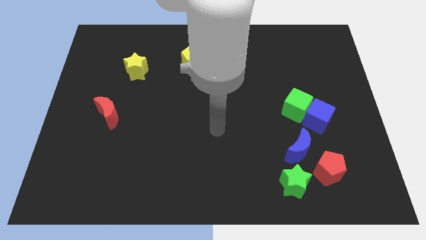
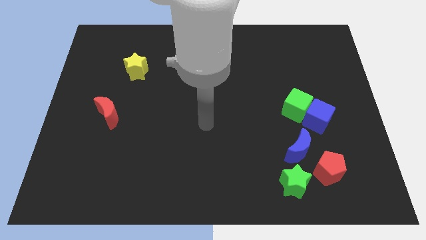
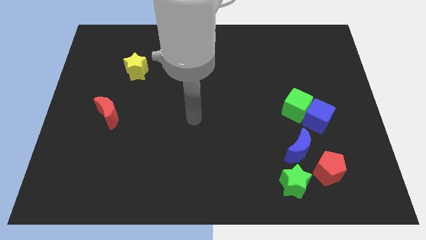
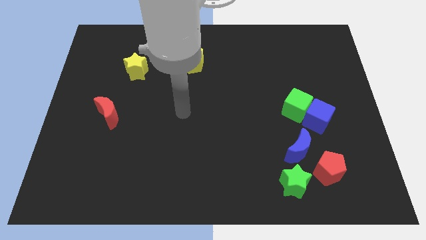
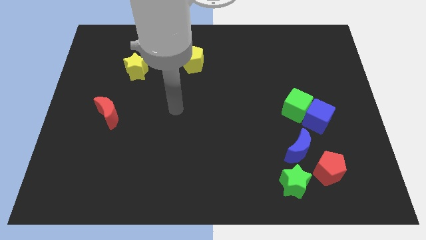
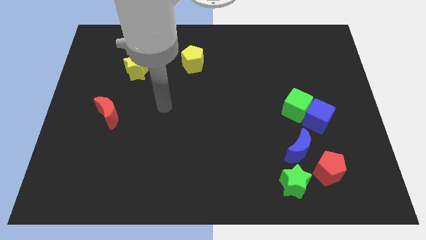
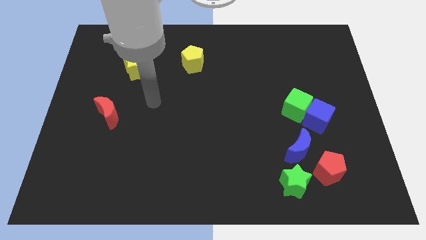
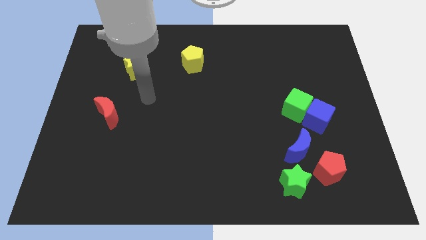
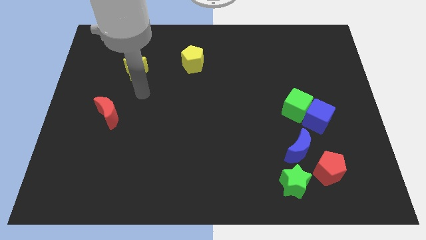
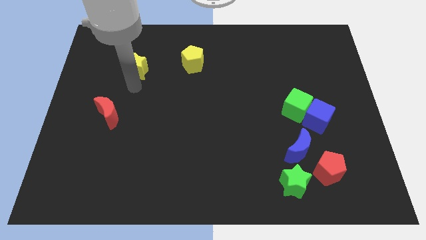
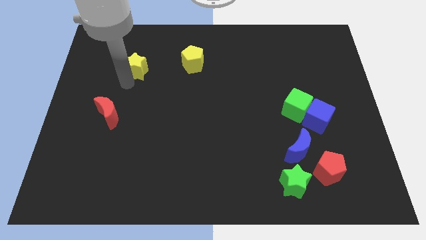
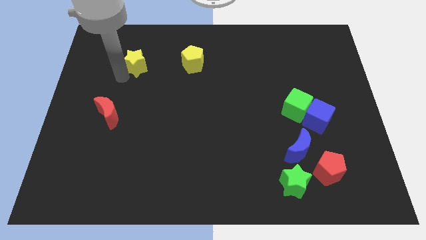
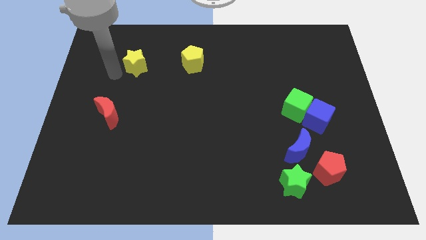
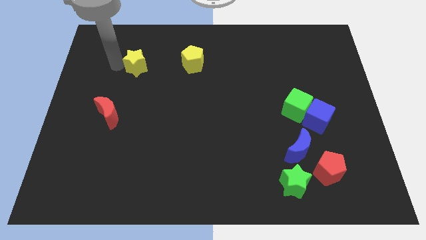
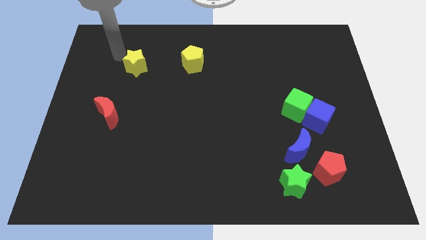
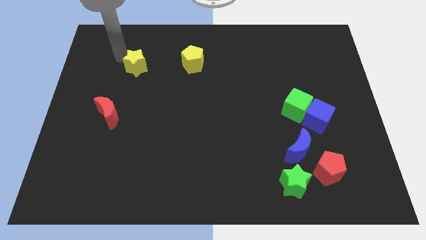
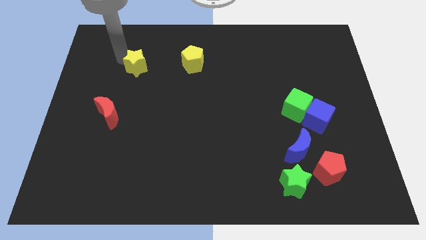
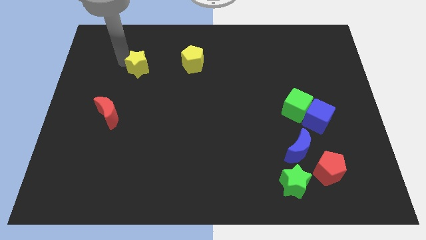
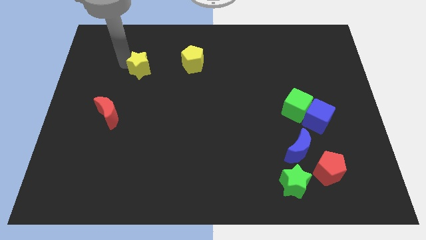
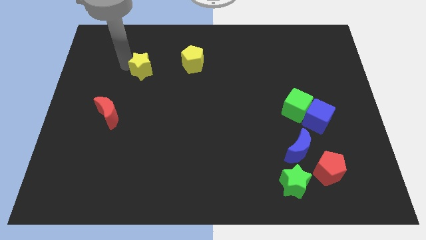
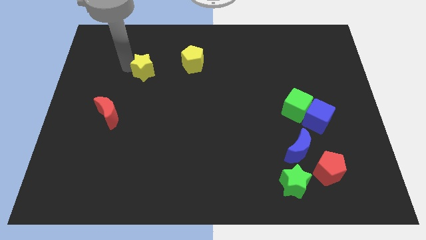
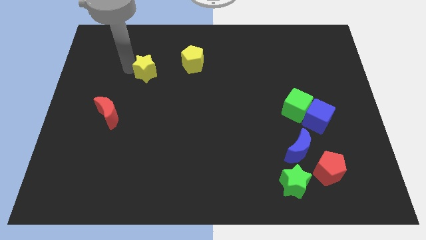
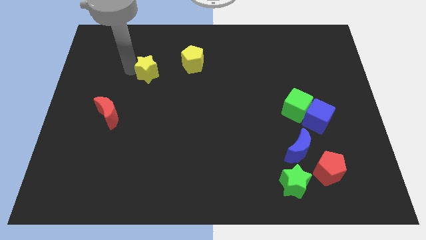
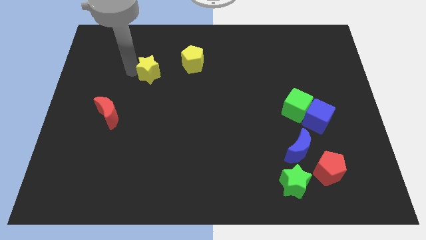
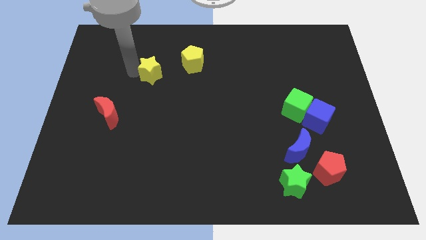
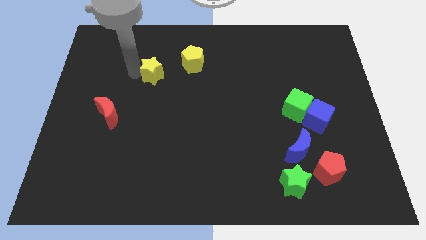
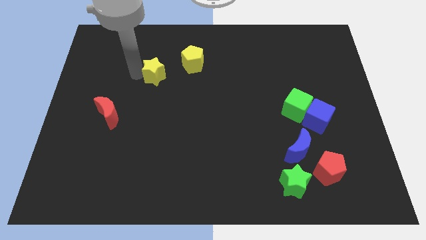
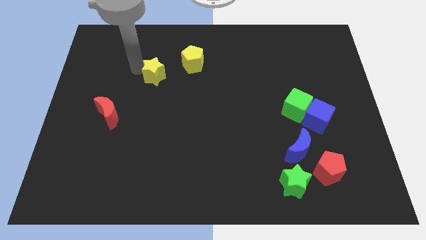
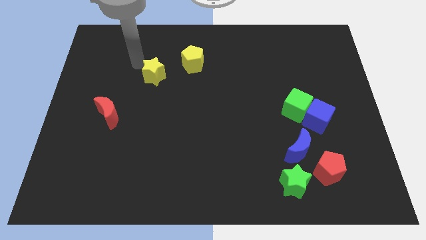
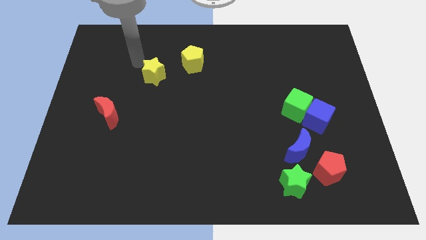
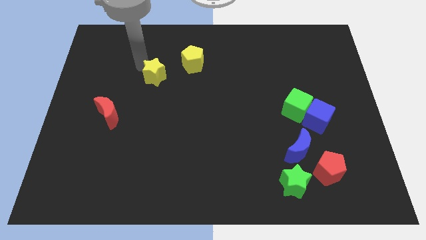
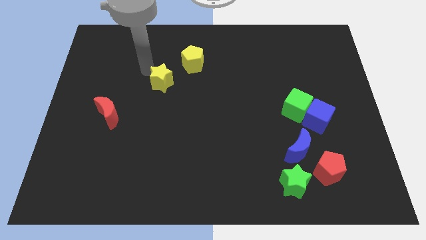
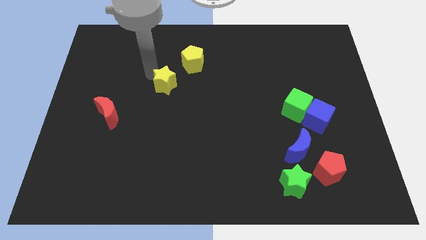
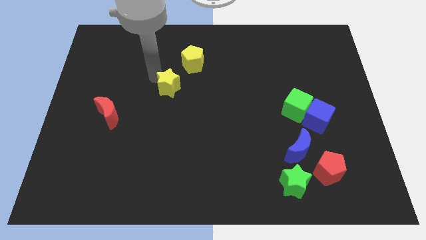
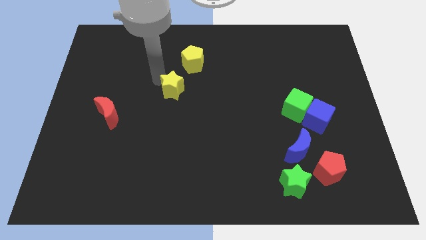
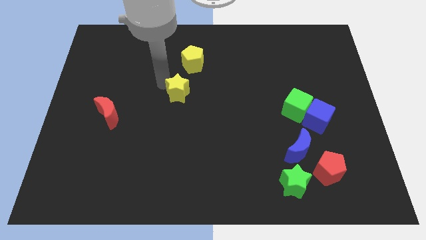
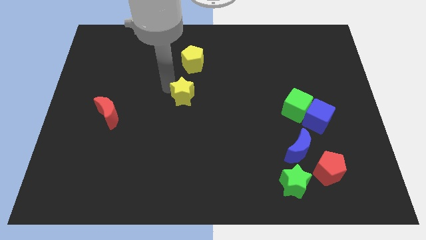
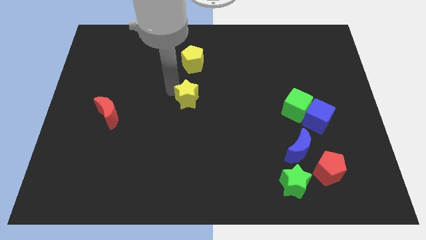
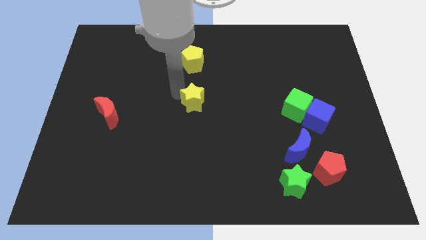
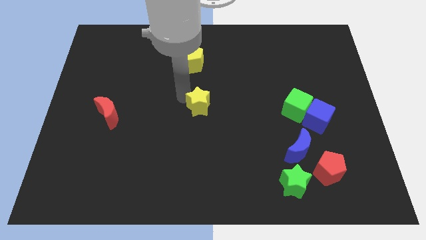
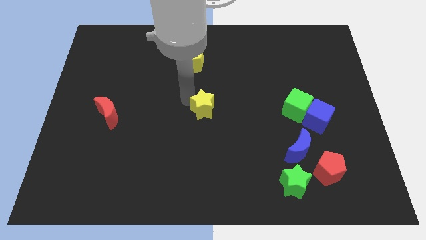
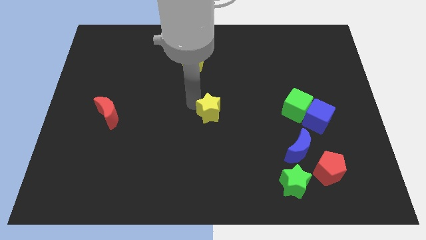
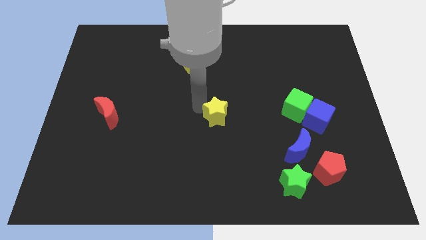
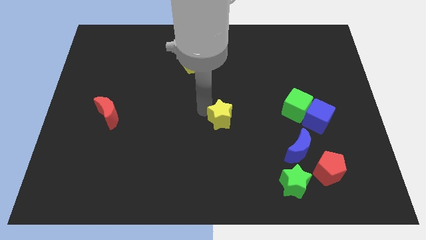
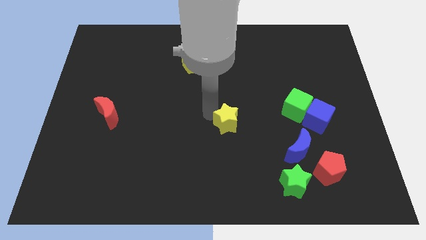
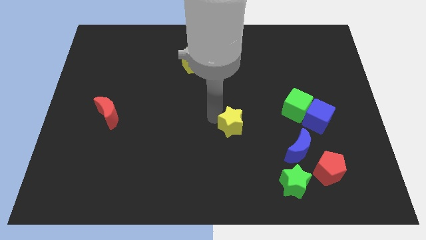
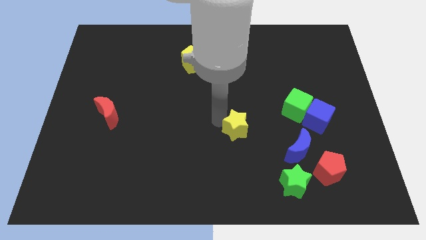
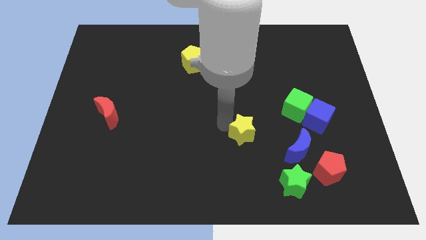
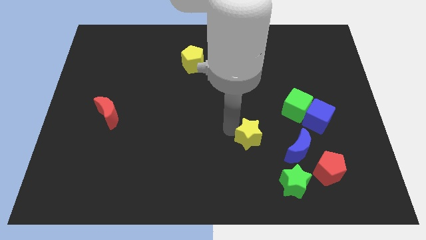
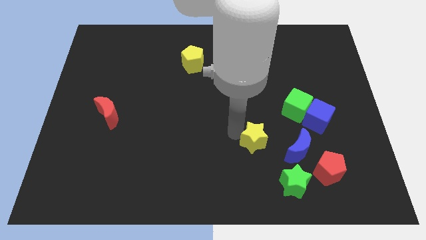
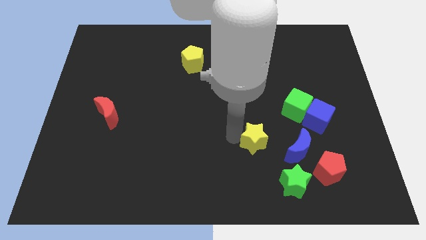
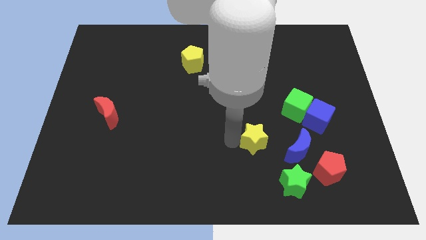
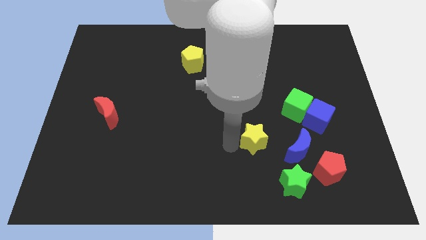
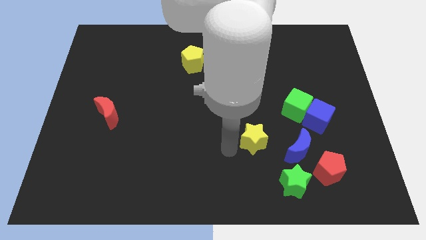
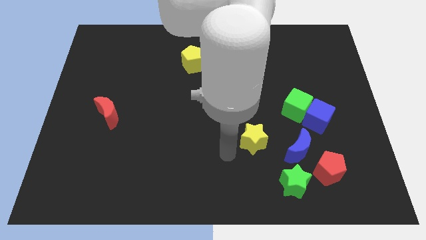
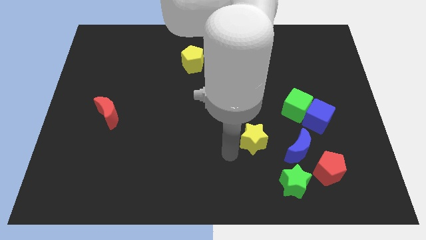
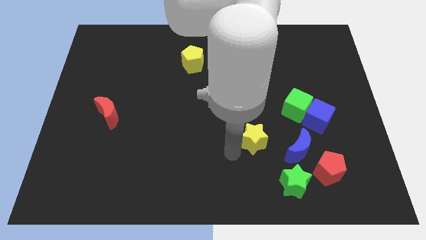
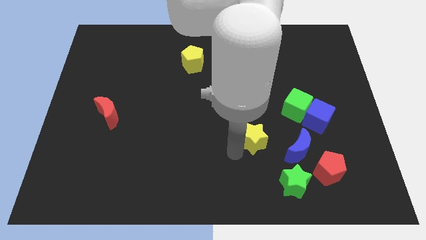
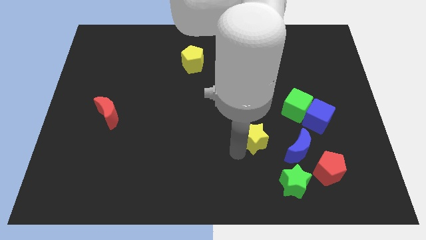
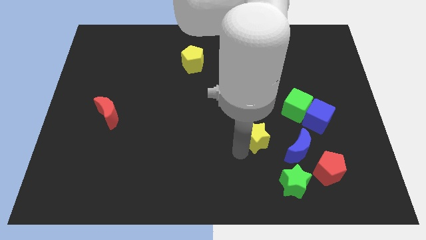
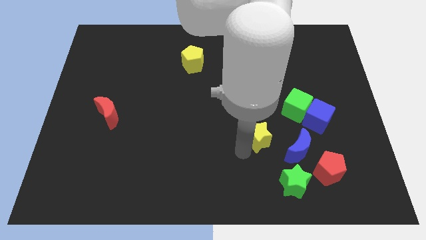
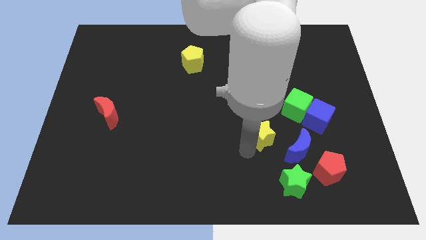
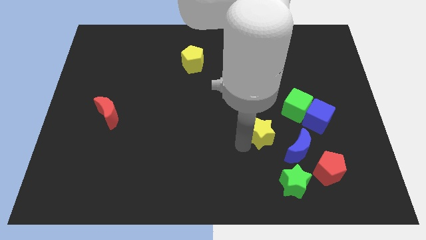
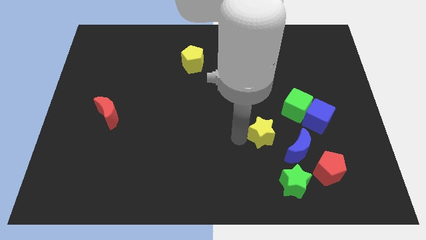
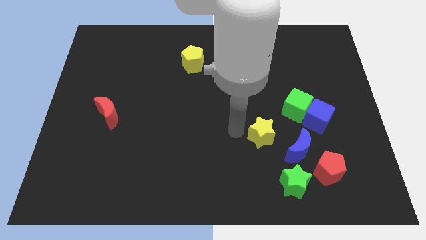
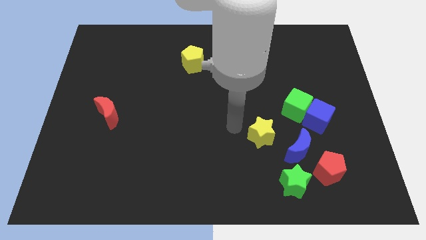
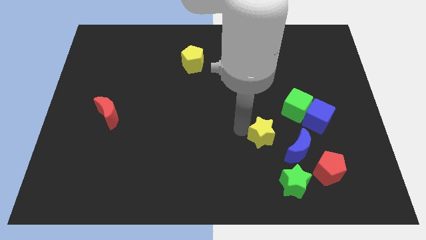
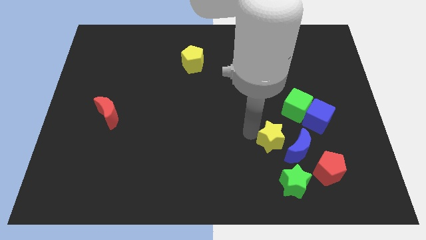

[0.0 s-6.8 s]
slide the yellow star close to the blue moon
